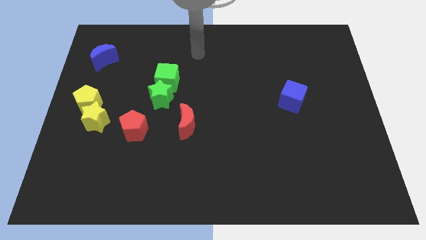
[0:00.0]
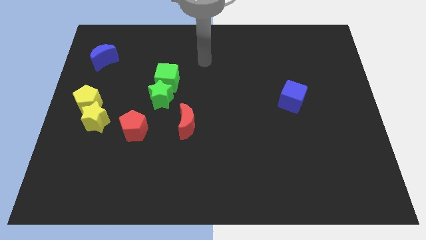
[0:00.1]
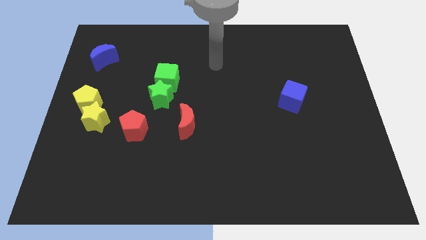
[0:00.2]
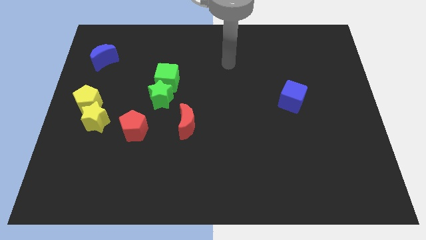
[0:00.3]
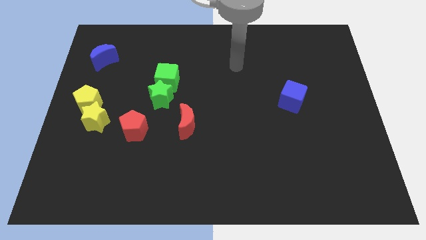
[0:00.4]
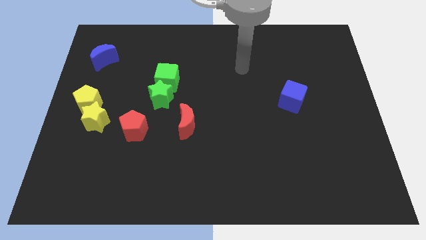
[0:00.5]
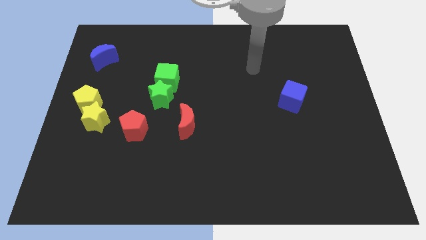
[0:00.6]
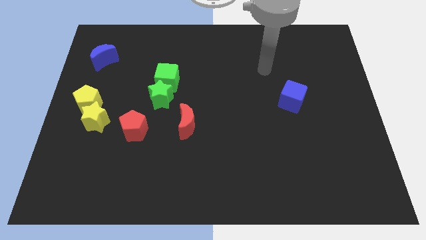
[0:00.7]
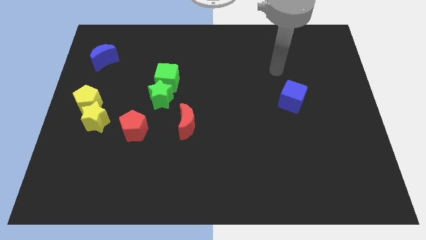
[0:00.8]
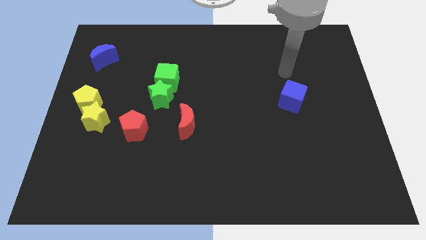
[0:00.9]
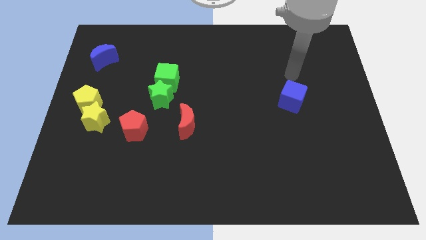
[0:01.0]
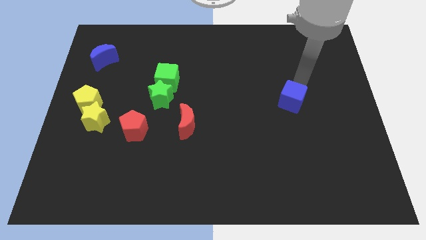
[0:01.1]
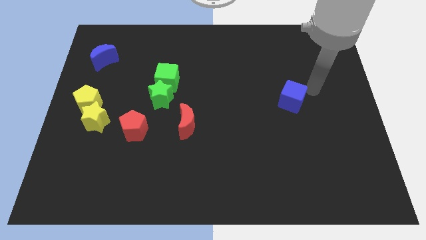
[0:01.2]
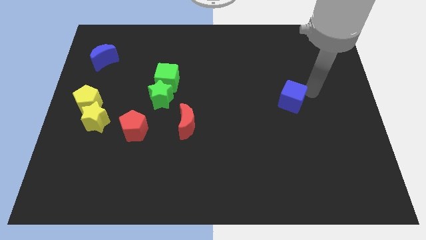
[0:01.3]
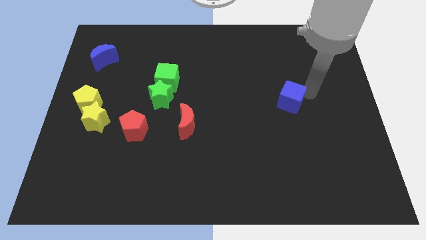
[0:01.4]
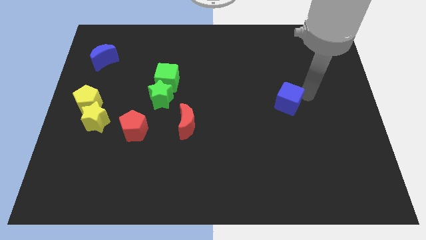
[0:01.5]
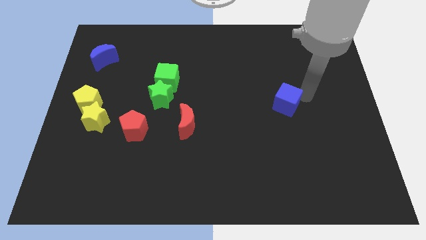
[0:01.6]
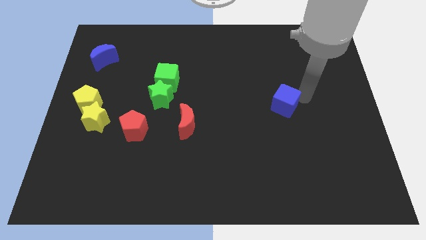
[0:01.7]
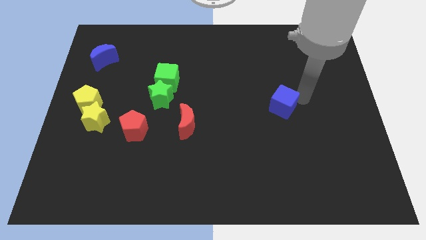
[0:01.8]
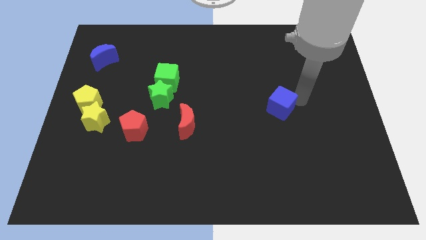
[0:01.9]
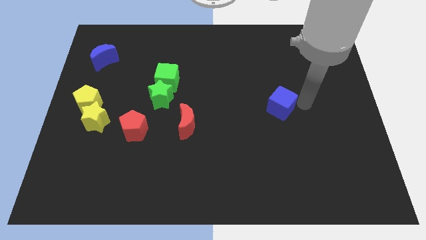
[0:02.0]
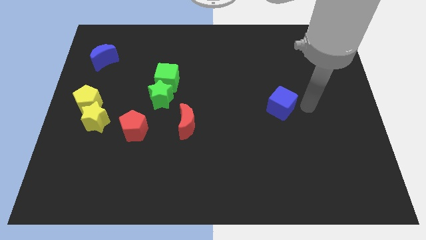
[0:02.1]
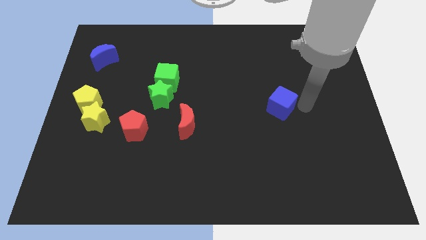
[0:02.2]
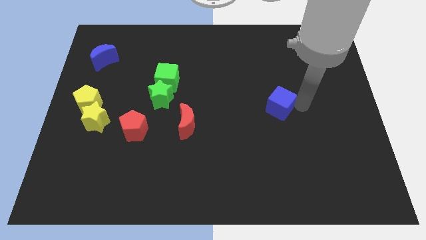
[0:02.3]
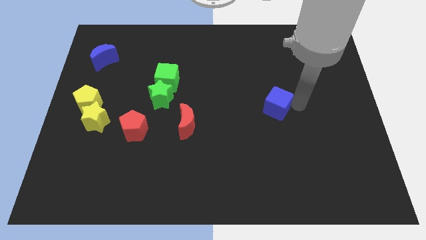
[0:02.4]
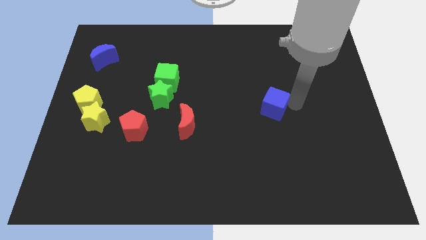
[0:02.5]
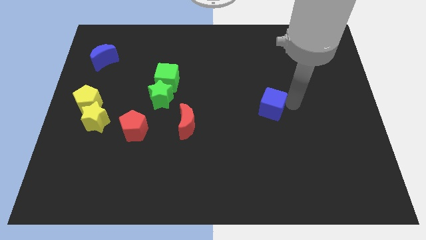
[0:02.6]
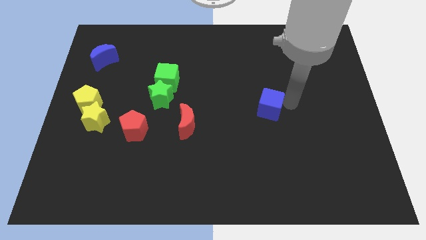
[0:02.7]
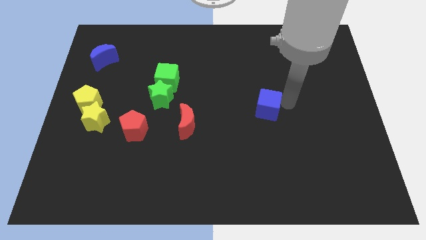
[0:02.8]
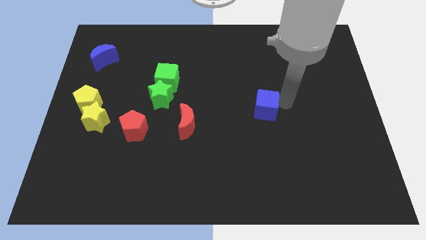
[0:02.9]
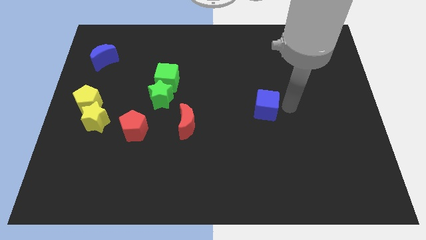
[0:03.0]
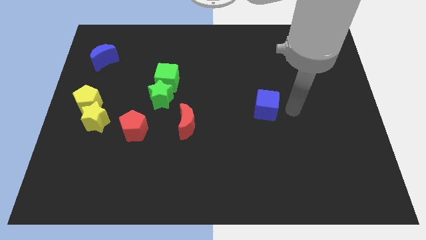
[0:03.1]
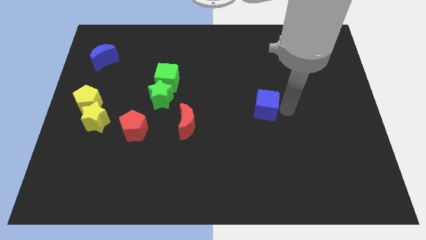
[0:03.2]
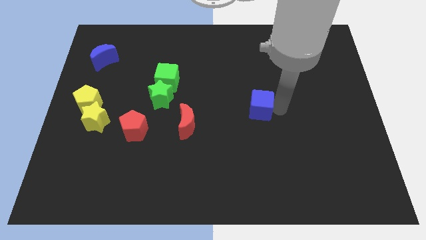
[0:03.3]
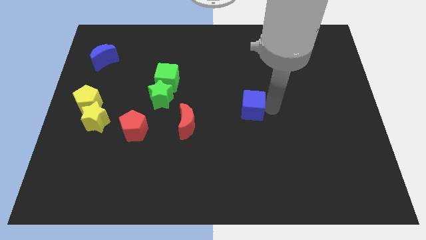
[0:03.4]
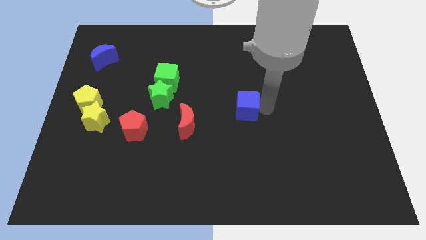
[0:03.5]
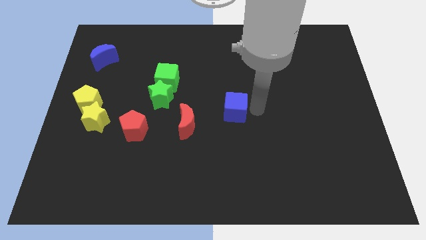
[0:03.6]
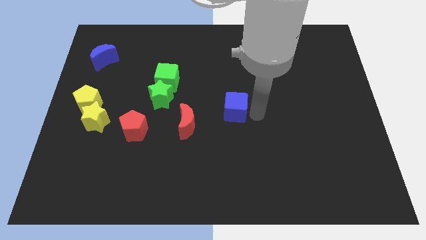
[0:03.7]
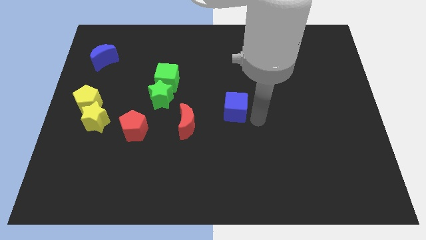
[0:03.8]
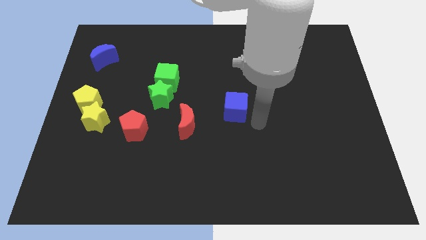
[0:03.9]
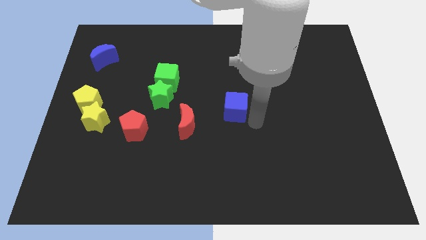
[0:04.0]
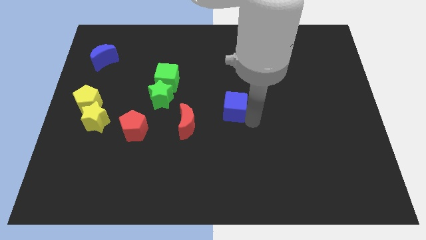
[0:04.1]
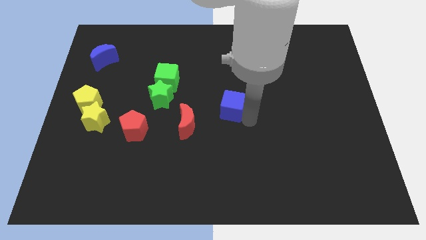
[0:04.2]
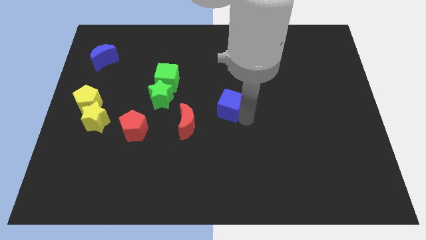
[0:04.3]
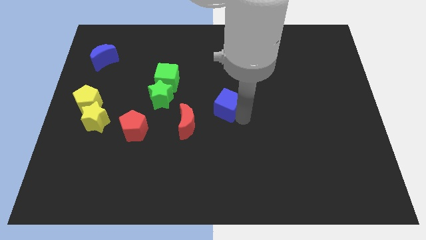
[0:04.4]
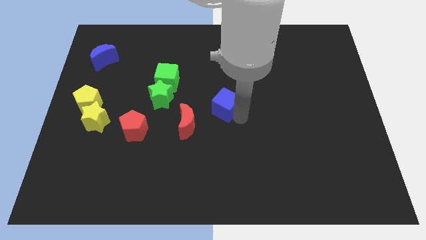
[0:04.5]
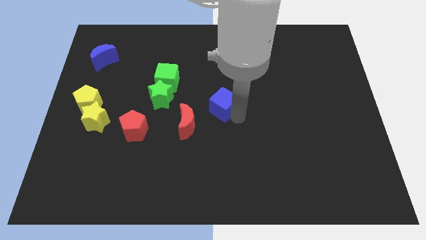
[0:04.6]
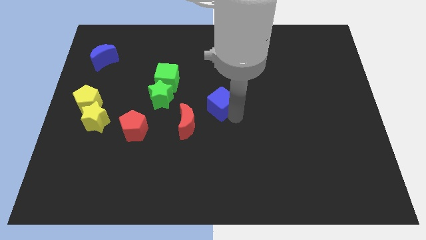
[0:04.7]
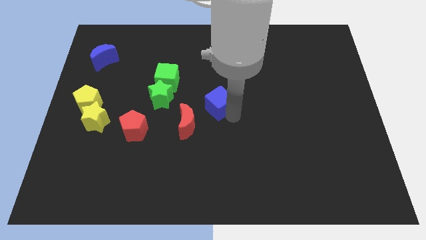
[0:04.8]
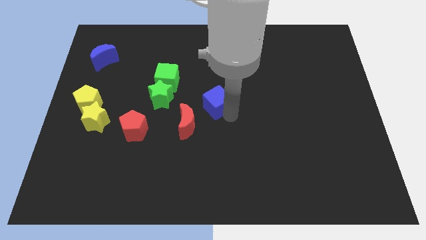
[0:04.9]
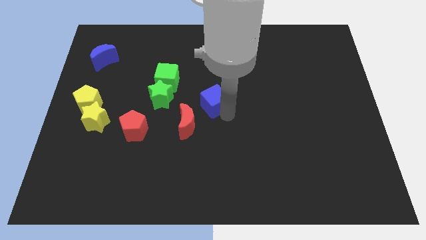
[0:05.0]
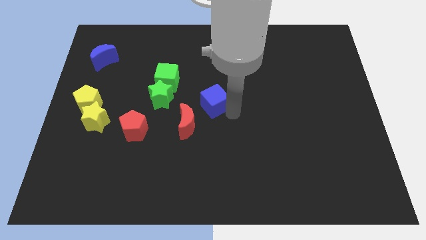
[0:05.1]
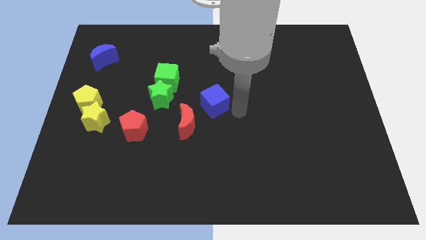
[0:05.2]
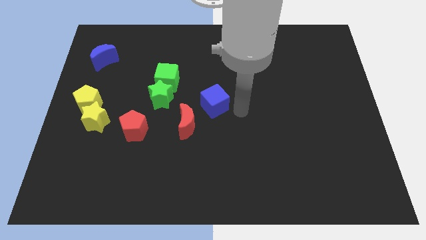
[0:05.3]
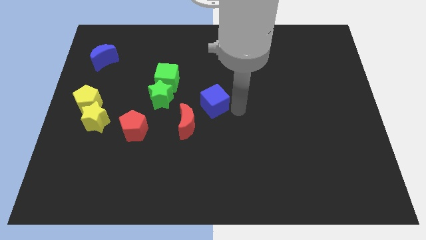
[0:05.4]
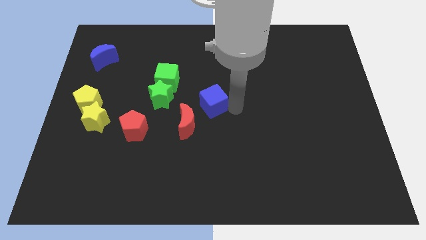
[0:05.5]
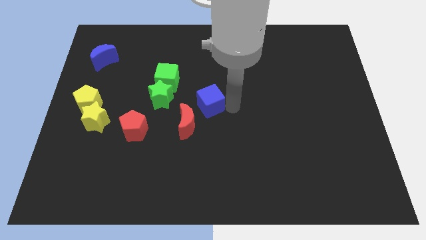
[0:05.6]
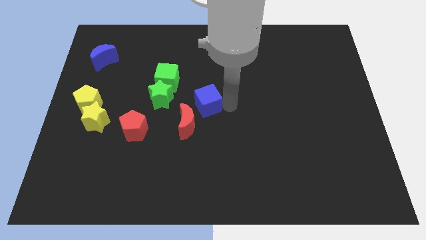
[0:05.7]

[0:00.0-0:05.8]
put the blue cube to the bottom right side of the green cube

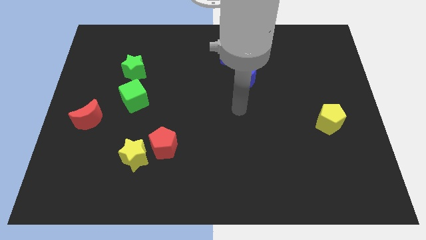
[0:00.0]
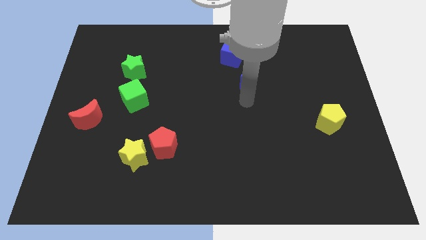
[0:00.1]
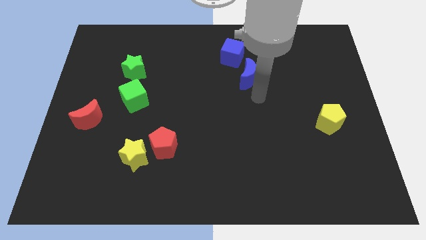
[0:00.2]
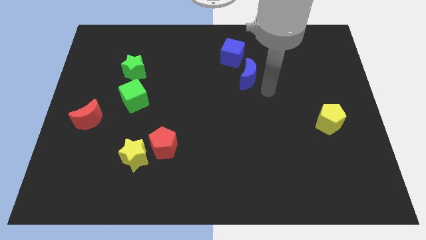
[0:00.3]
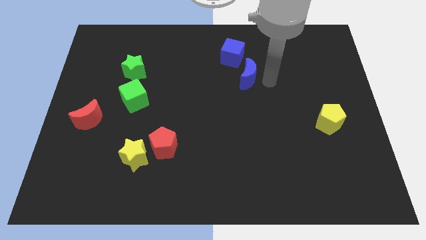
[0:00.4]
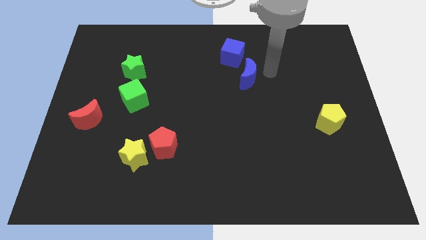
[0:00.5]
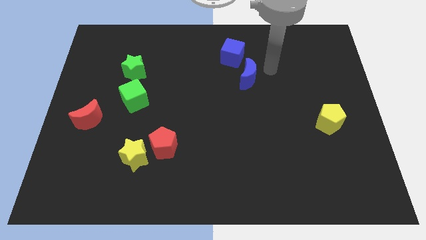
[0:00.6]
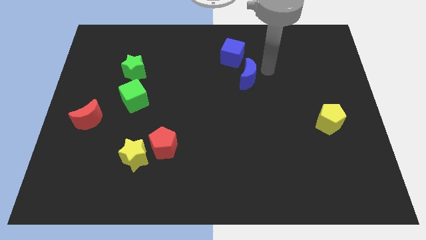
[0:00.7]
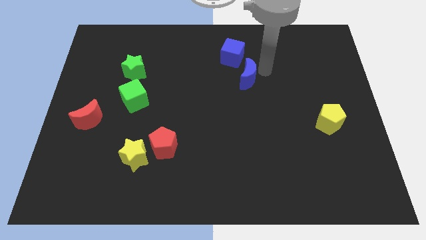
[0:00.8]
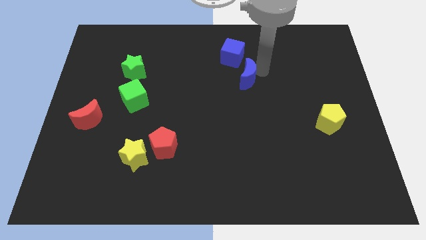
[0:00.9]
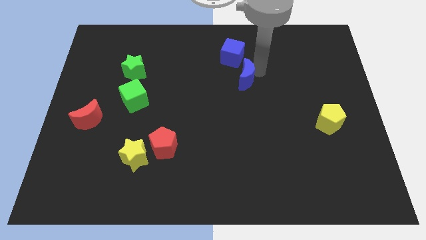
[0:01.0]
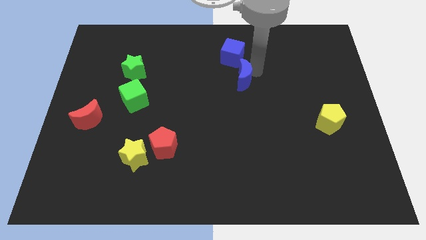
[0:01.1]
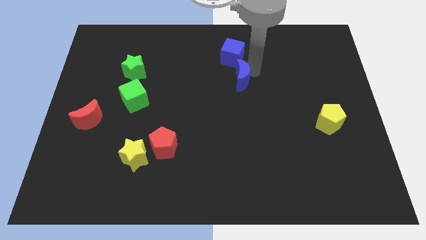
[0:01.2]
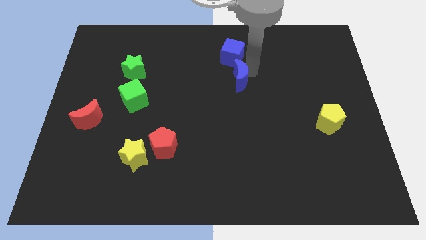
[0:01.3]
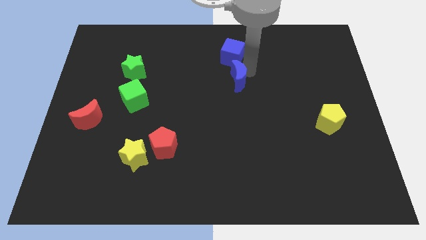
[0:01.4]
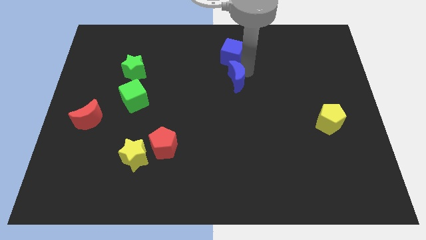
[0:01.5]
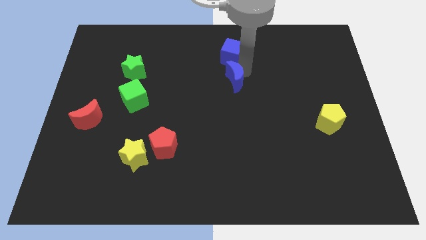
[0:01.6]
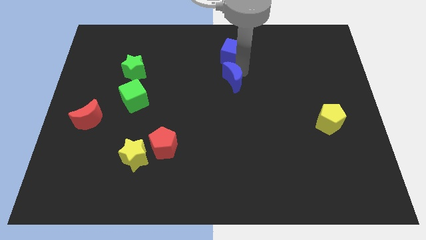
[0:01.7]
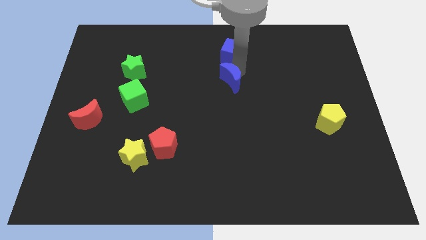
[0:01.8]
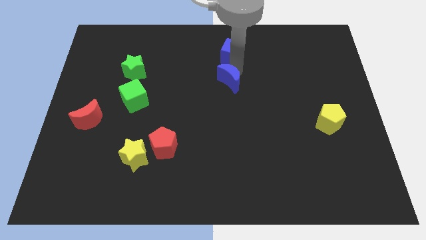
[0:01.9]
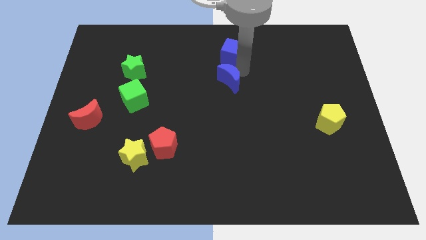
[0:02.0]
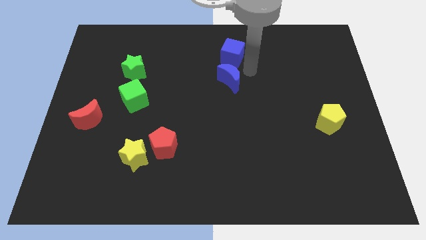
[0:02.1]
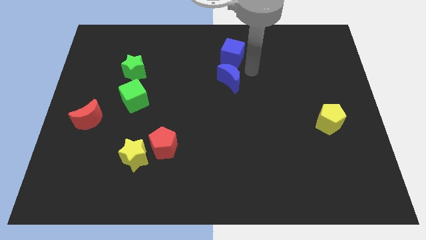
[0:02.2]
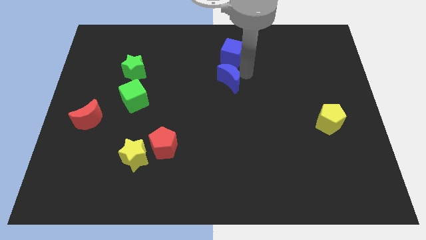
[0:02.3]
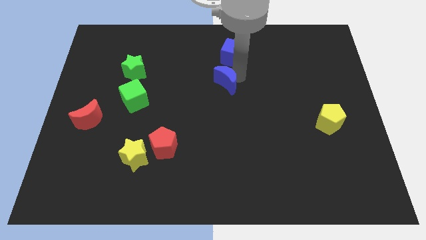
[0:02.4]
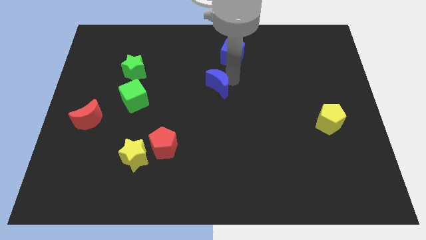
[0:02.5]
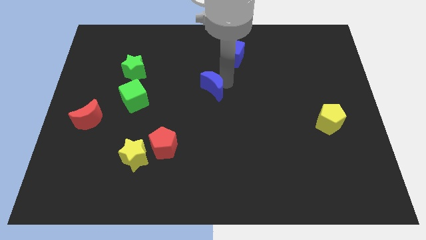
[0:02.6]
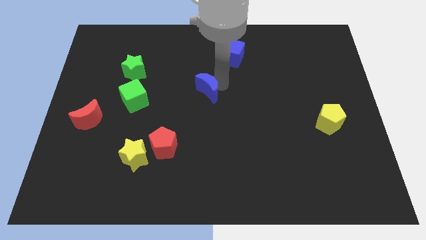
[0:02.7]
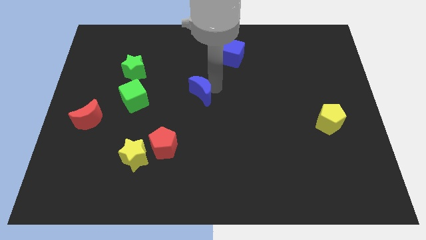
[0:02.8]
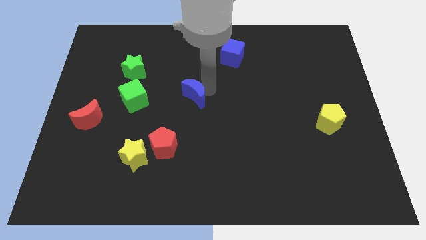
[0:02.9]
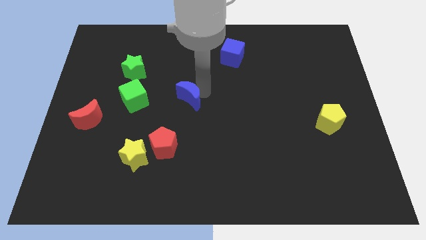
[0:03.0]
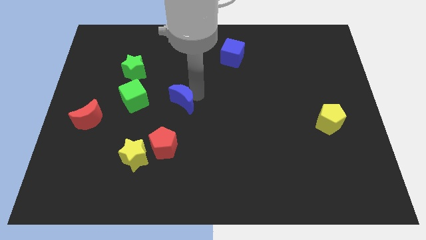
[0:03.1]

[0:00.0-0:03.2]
move the blue moon to the top side of the red pentagon
